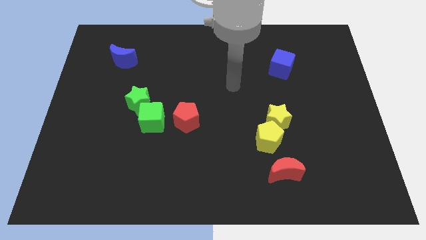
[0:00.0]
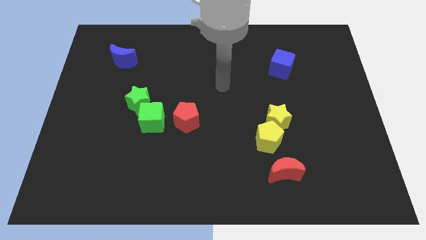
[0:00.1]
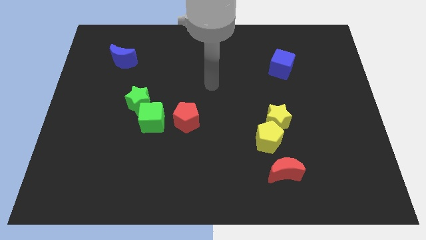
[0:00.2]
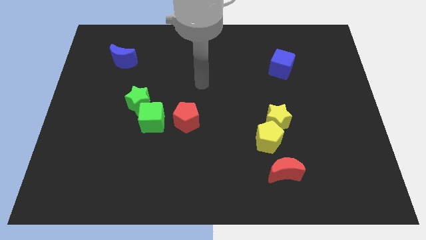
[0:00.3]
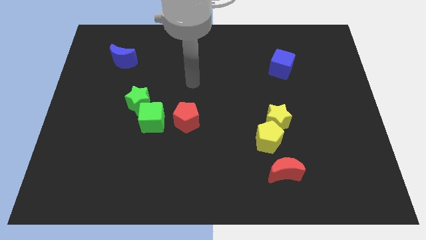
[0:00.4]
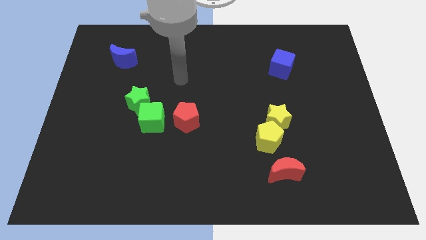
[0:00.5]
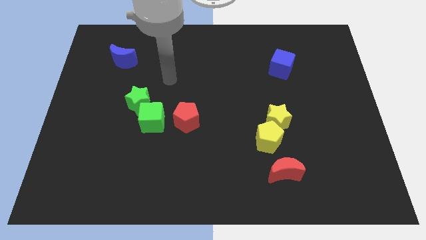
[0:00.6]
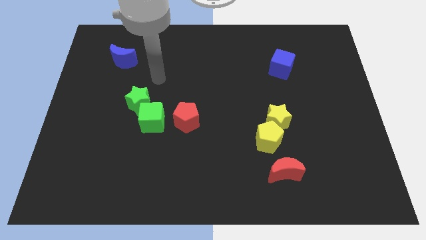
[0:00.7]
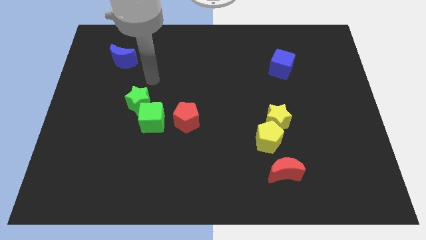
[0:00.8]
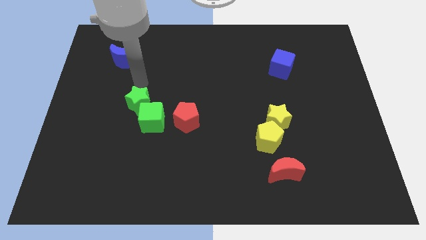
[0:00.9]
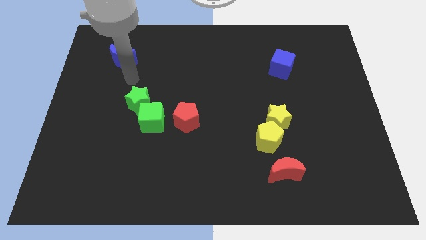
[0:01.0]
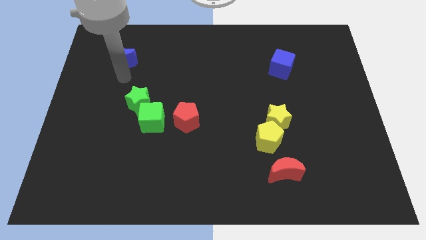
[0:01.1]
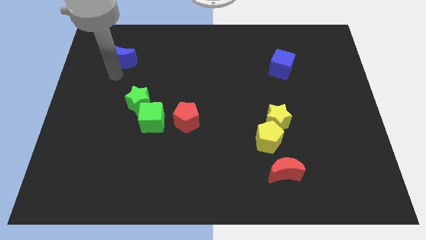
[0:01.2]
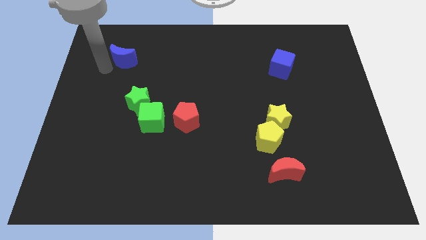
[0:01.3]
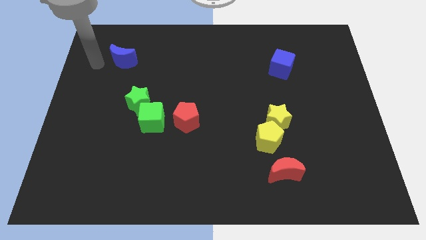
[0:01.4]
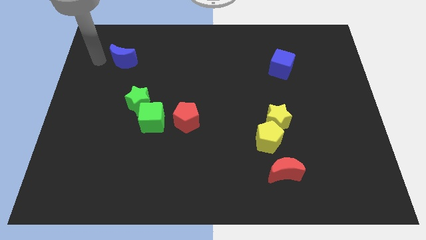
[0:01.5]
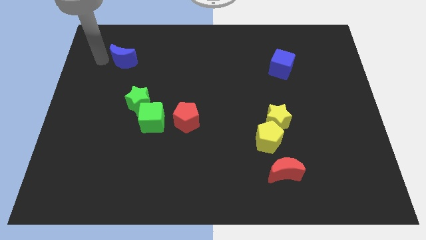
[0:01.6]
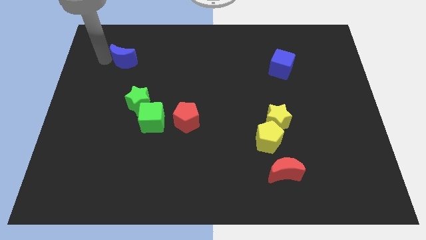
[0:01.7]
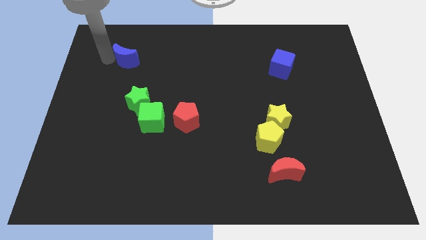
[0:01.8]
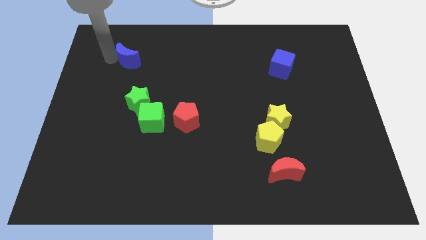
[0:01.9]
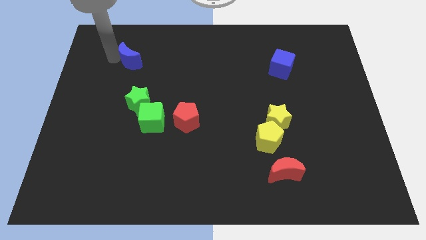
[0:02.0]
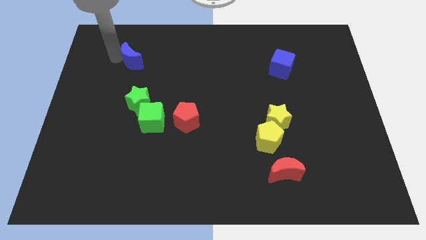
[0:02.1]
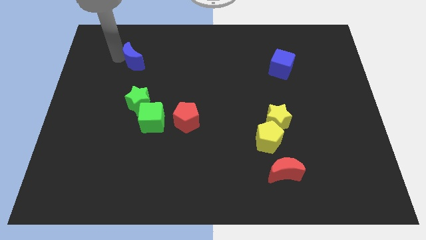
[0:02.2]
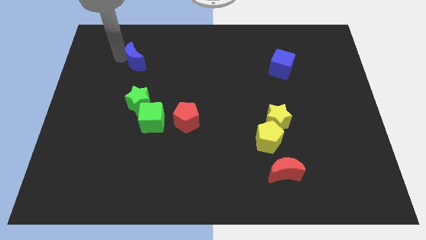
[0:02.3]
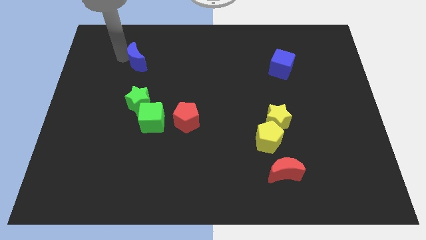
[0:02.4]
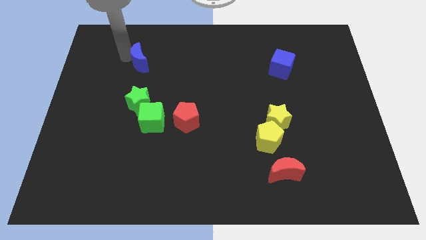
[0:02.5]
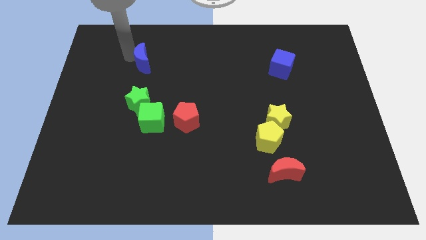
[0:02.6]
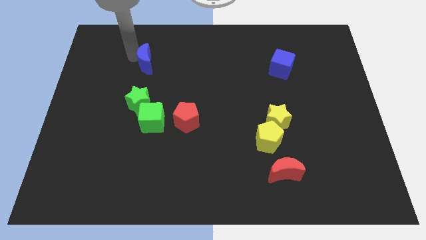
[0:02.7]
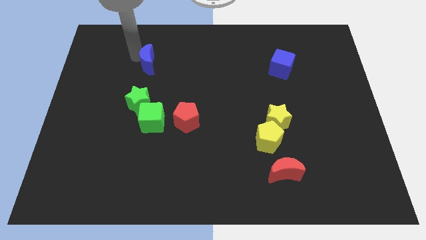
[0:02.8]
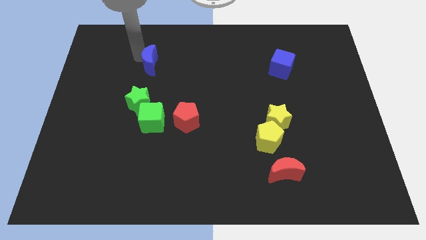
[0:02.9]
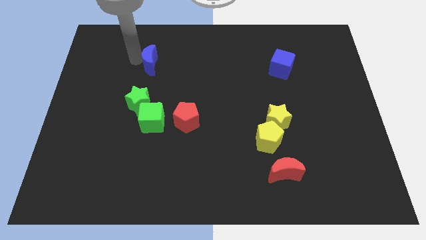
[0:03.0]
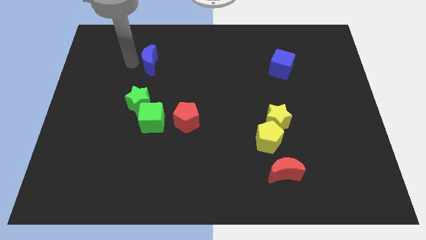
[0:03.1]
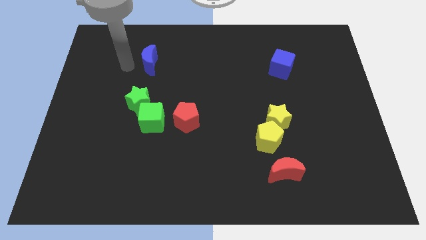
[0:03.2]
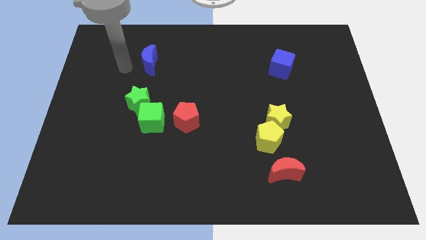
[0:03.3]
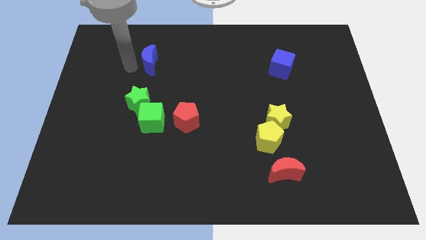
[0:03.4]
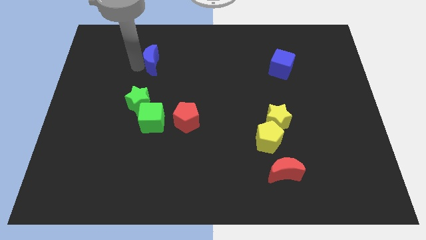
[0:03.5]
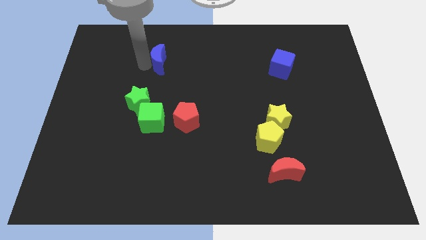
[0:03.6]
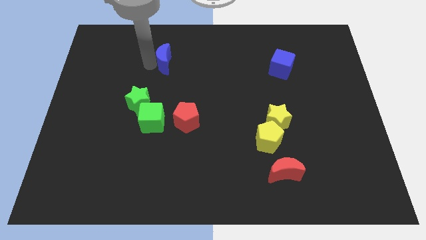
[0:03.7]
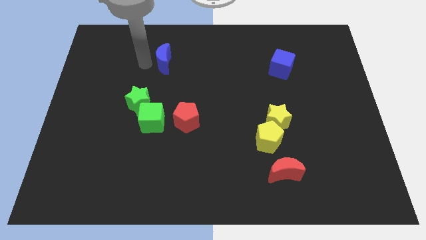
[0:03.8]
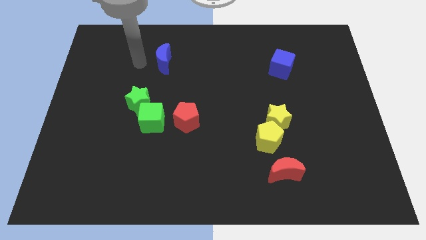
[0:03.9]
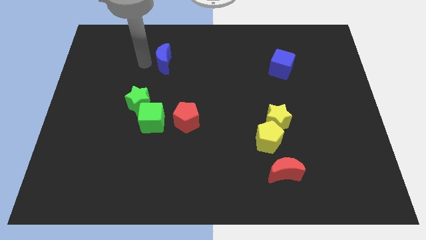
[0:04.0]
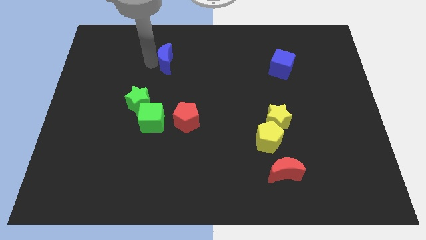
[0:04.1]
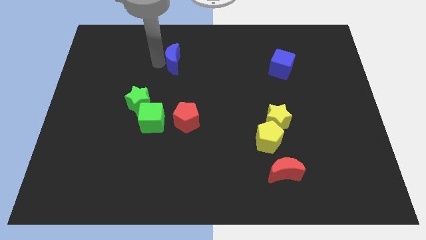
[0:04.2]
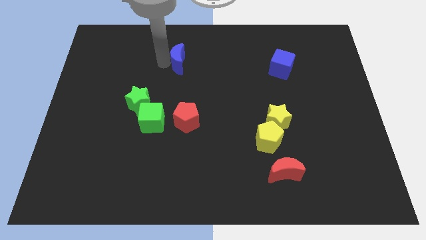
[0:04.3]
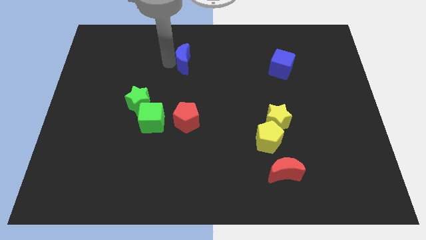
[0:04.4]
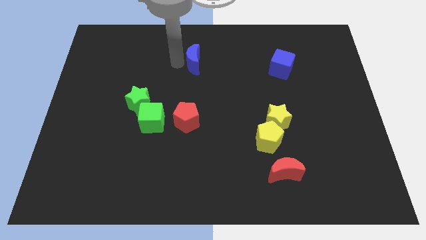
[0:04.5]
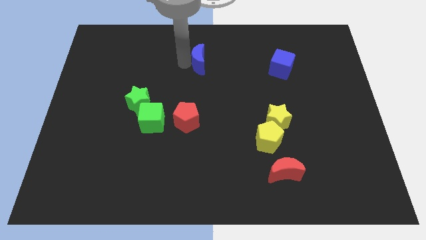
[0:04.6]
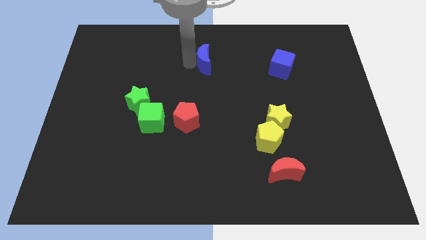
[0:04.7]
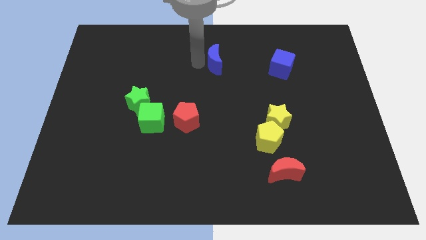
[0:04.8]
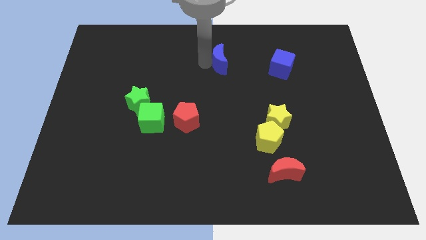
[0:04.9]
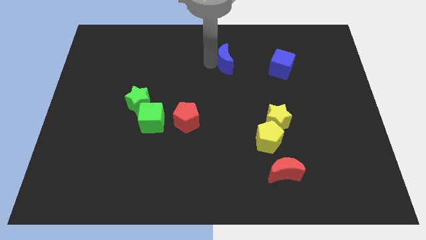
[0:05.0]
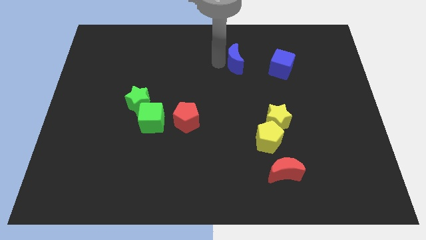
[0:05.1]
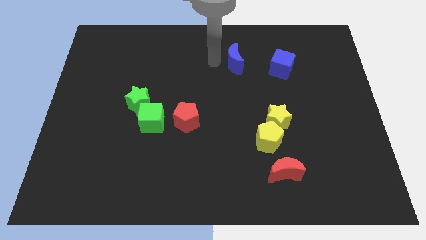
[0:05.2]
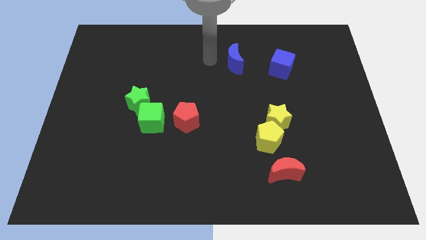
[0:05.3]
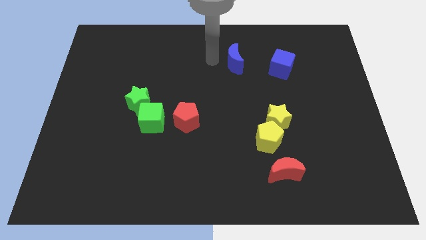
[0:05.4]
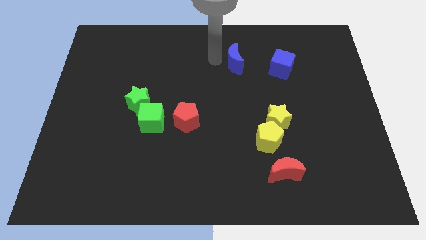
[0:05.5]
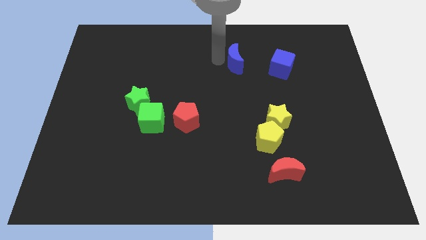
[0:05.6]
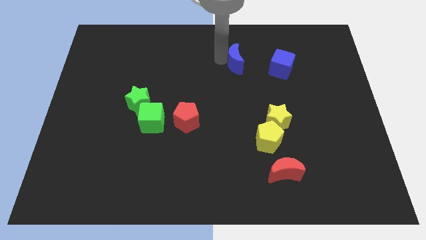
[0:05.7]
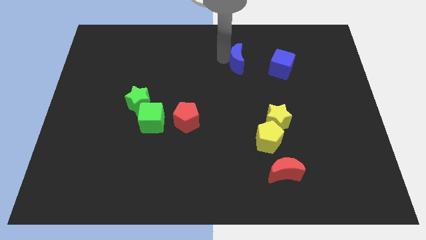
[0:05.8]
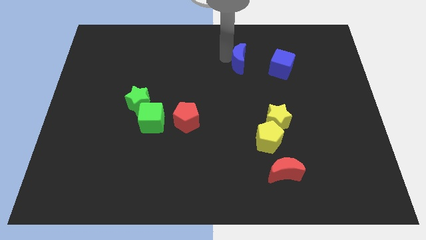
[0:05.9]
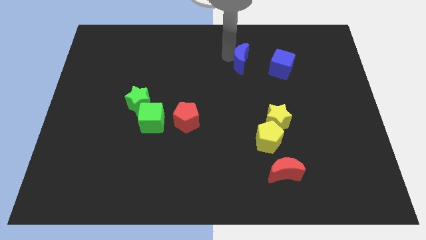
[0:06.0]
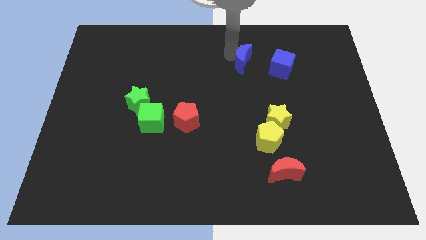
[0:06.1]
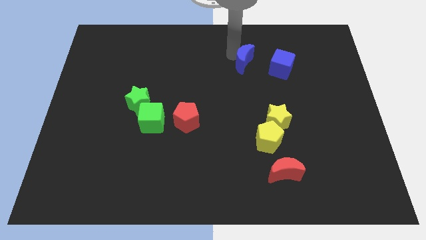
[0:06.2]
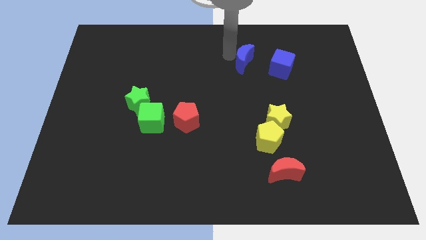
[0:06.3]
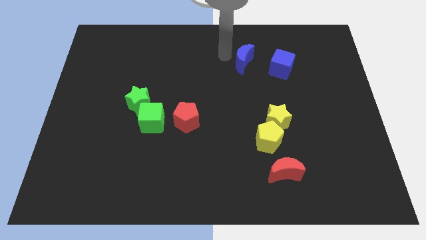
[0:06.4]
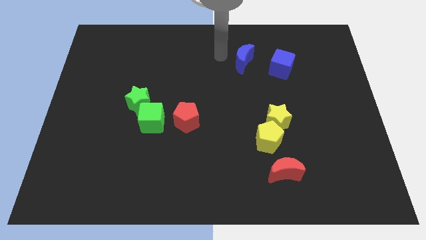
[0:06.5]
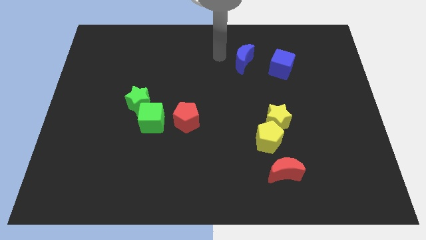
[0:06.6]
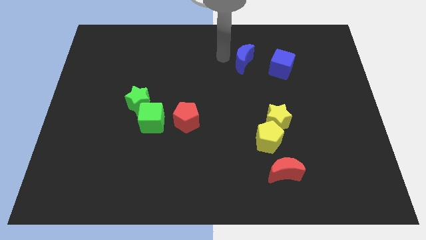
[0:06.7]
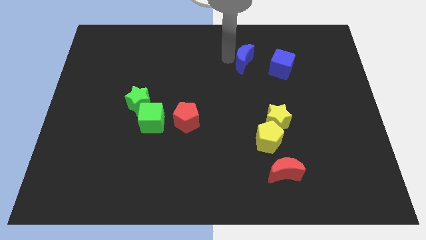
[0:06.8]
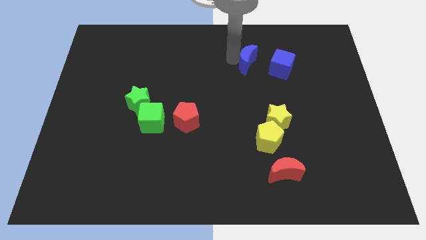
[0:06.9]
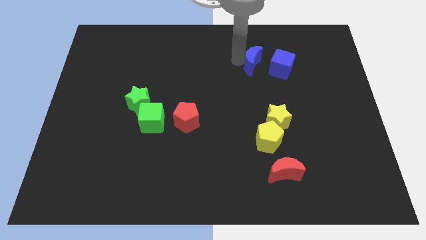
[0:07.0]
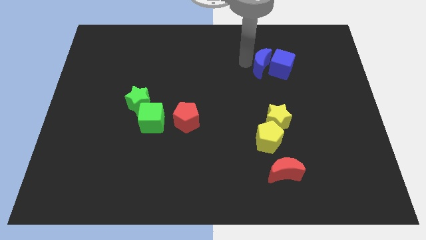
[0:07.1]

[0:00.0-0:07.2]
move the blue moon to the blue cube
